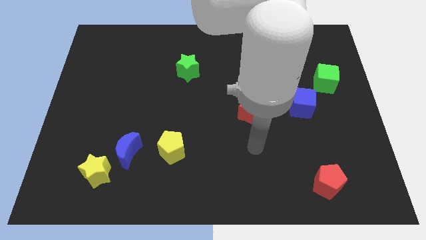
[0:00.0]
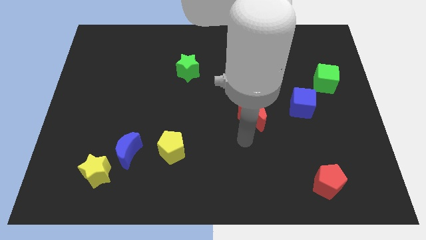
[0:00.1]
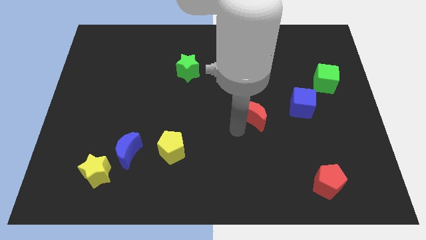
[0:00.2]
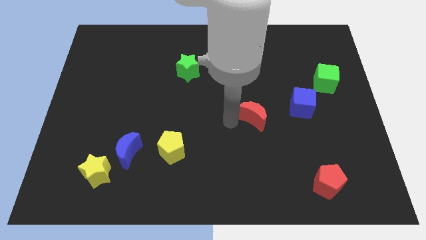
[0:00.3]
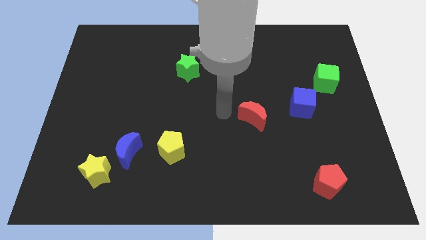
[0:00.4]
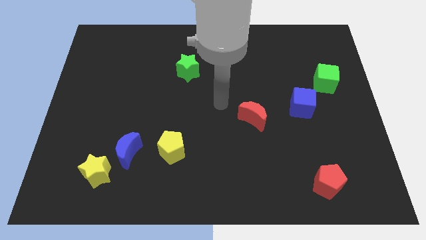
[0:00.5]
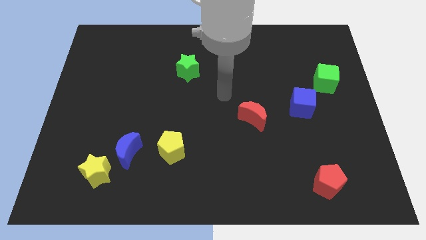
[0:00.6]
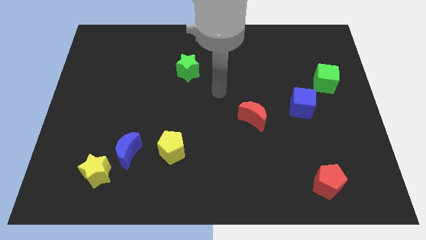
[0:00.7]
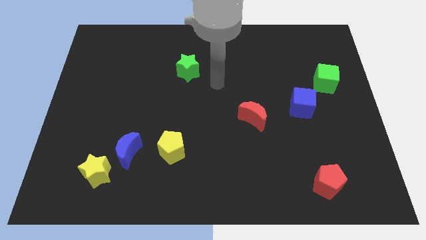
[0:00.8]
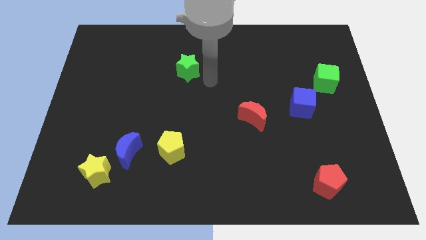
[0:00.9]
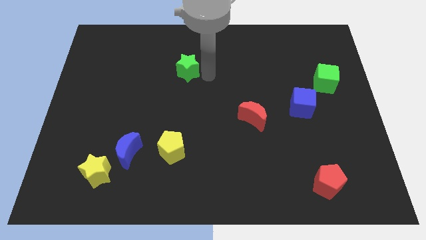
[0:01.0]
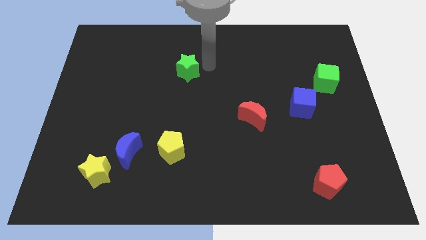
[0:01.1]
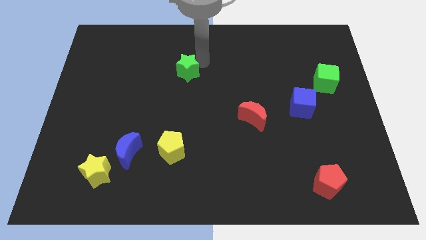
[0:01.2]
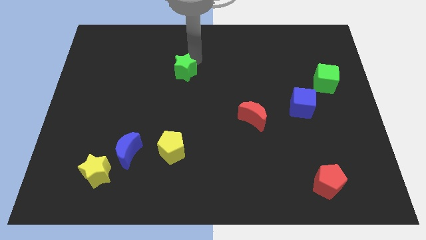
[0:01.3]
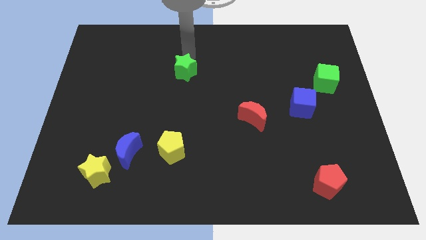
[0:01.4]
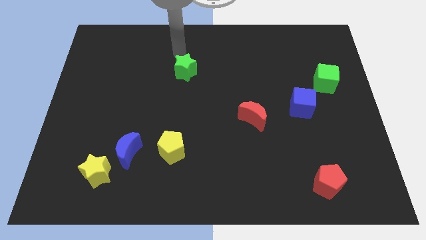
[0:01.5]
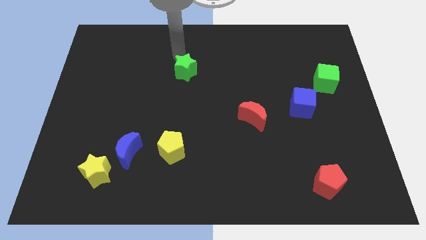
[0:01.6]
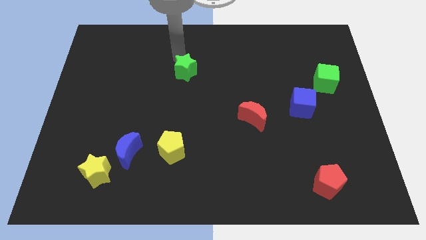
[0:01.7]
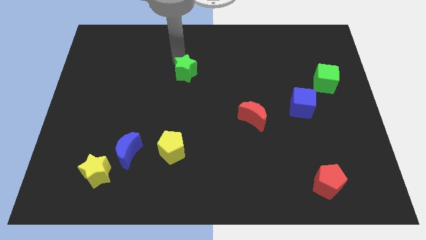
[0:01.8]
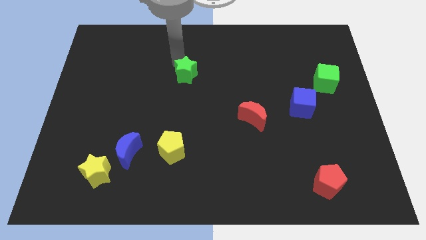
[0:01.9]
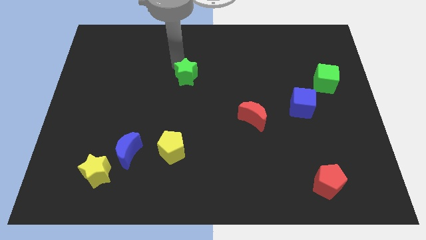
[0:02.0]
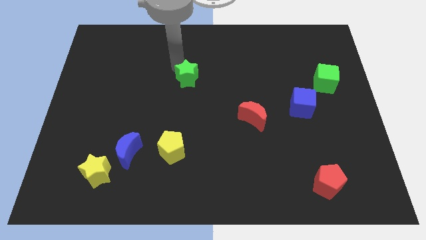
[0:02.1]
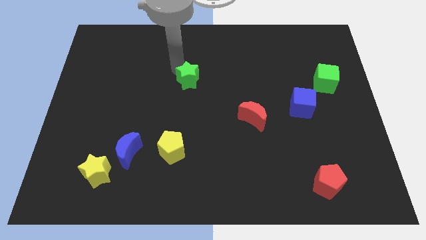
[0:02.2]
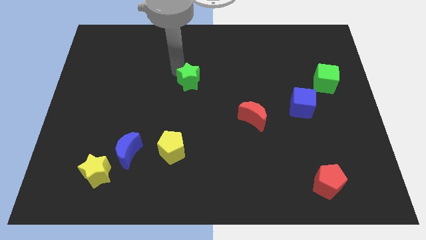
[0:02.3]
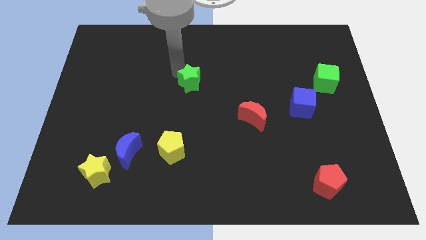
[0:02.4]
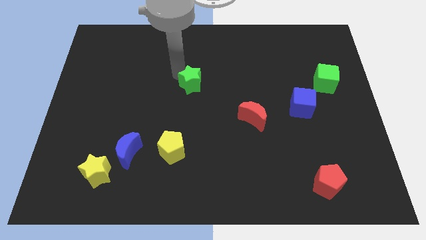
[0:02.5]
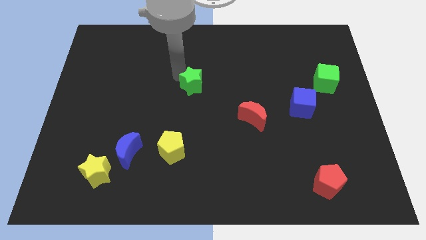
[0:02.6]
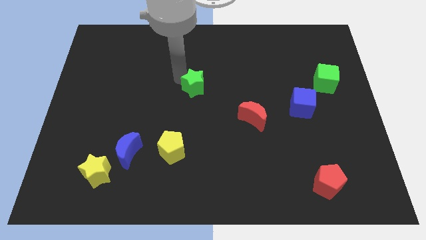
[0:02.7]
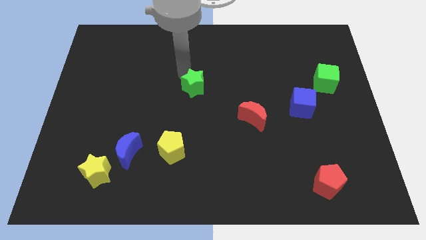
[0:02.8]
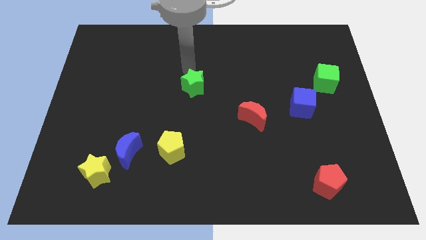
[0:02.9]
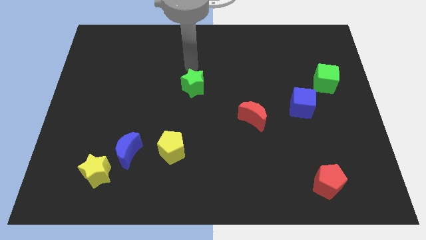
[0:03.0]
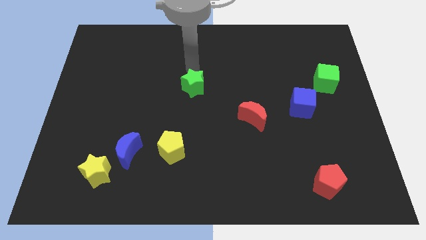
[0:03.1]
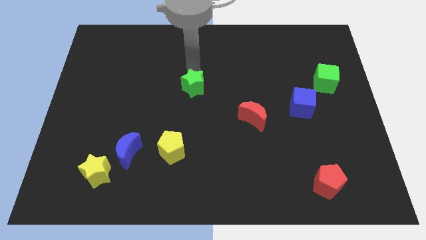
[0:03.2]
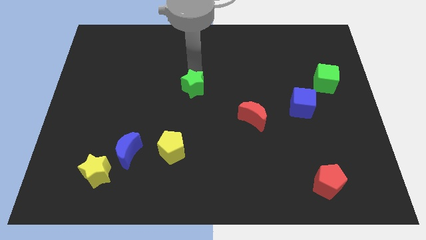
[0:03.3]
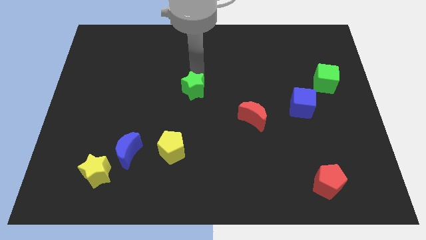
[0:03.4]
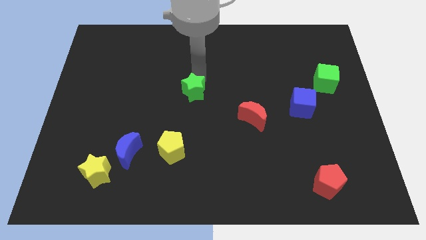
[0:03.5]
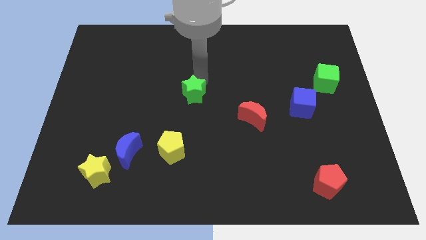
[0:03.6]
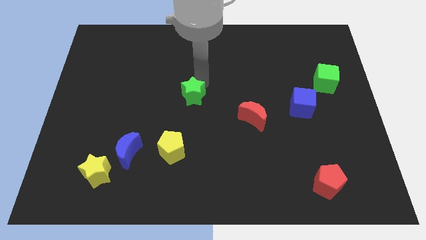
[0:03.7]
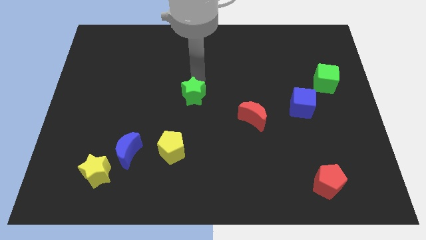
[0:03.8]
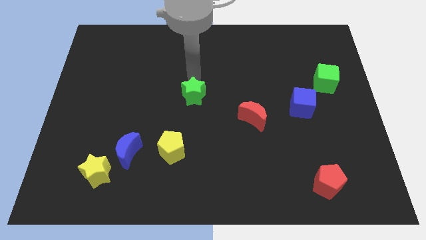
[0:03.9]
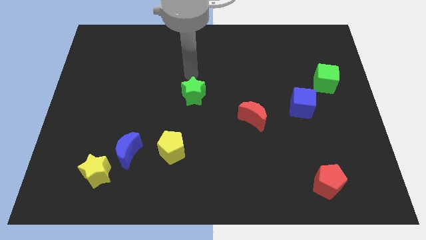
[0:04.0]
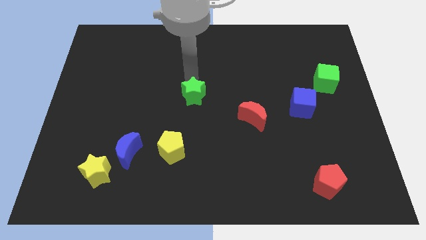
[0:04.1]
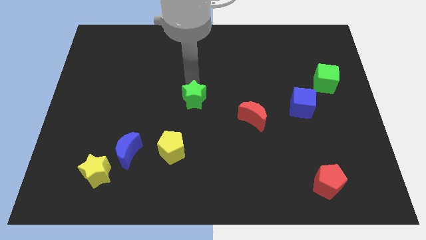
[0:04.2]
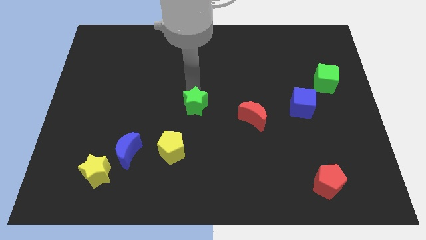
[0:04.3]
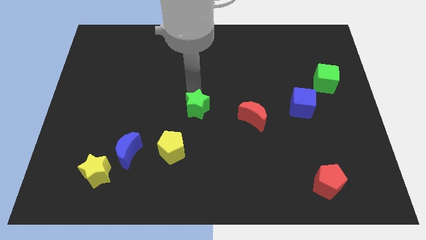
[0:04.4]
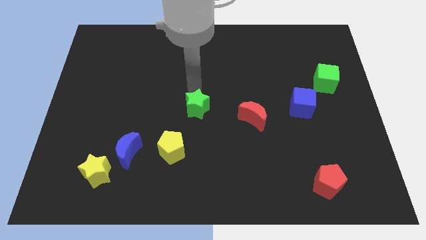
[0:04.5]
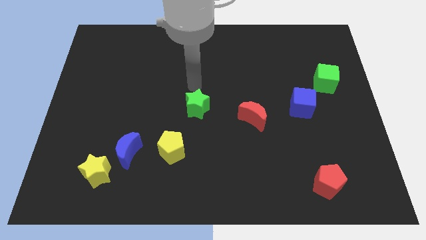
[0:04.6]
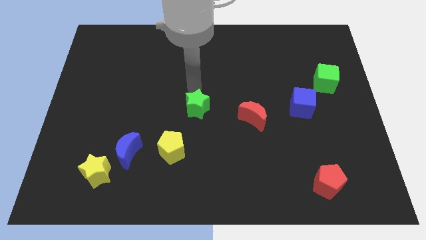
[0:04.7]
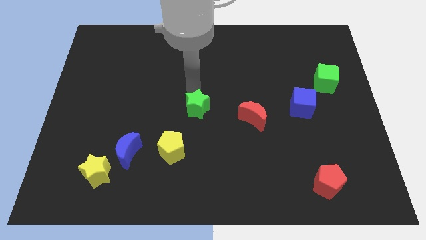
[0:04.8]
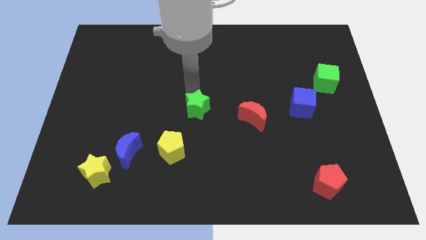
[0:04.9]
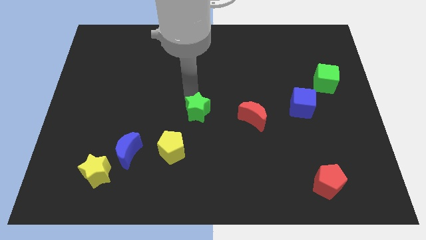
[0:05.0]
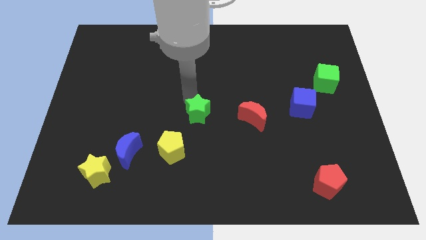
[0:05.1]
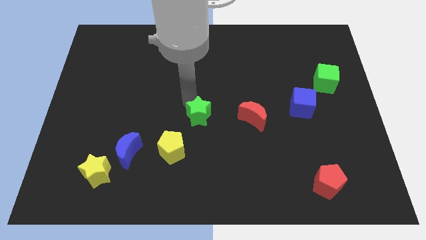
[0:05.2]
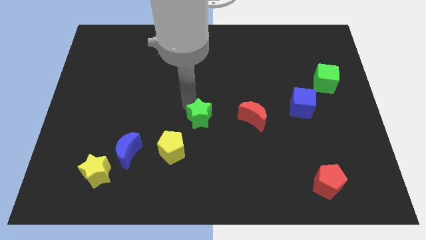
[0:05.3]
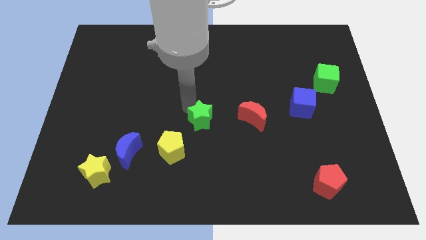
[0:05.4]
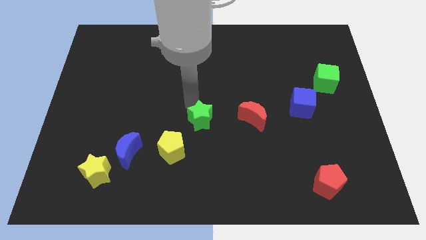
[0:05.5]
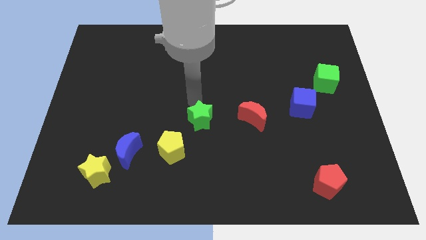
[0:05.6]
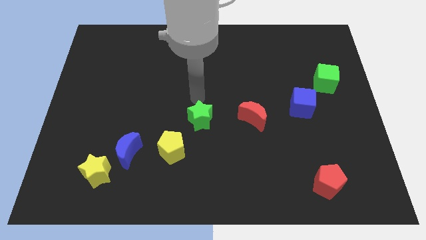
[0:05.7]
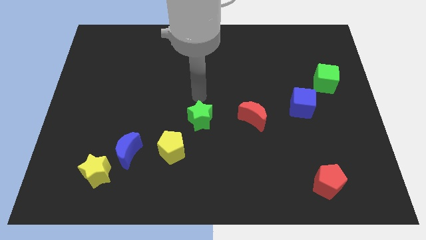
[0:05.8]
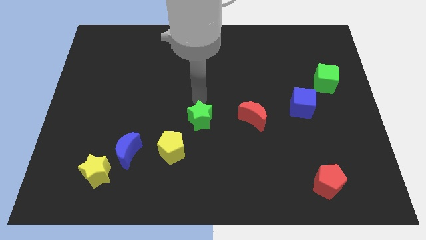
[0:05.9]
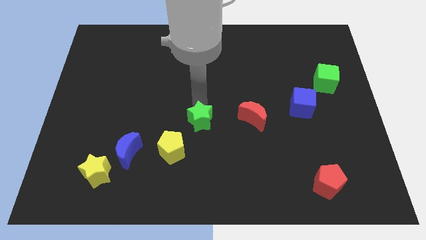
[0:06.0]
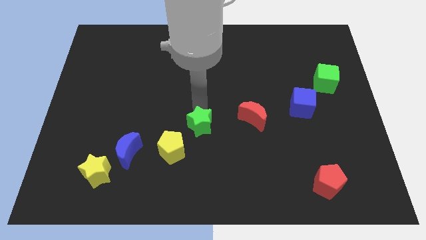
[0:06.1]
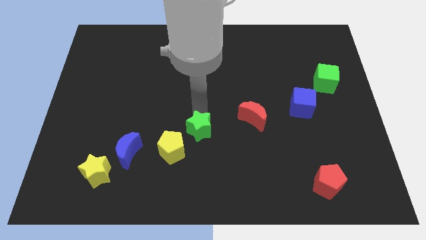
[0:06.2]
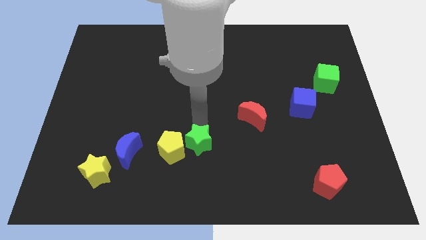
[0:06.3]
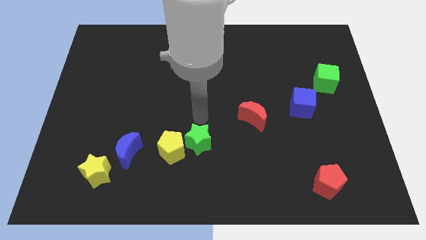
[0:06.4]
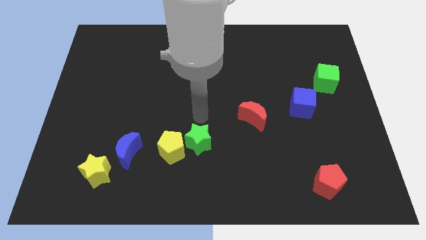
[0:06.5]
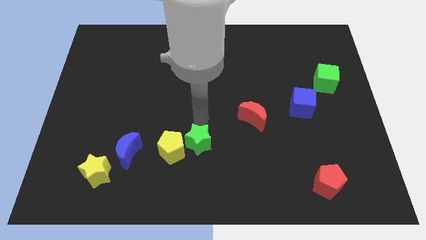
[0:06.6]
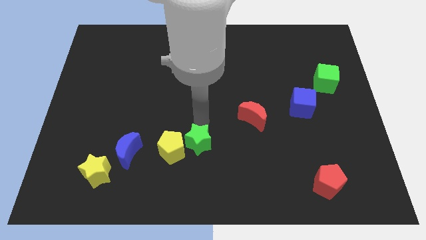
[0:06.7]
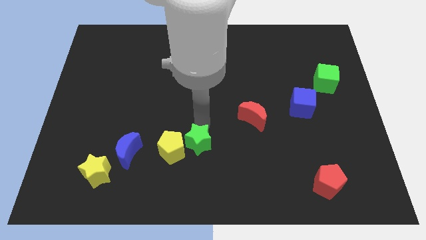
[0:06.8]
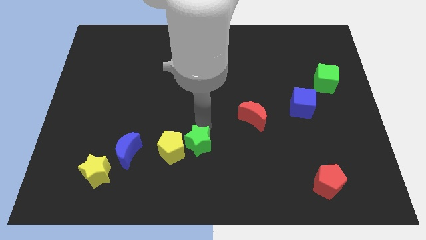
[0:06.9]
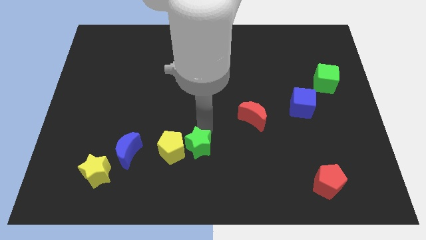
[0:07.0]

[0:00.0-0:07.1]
move the green star diagonally down and to the right of the yellow pentagon
